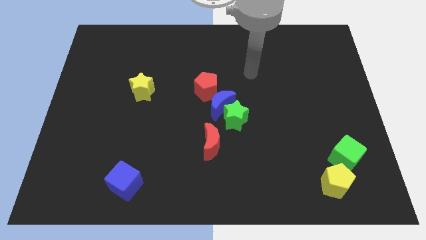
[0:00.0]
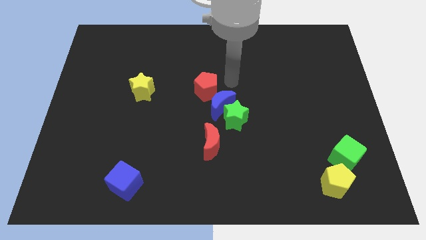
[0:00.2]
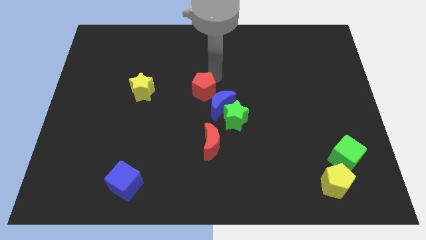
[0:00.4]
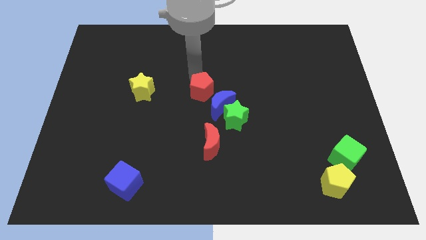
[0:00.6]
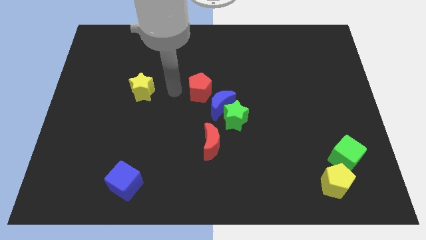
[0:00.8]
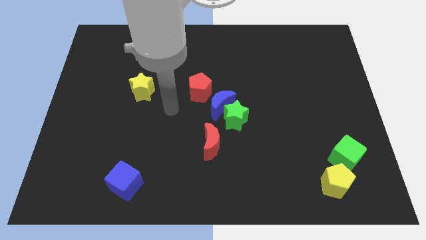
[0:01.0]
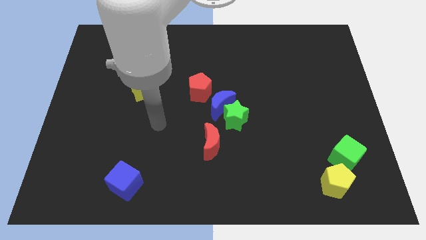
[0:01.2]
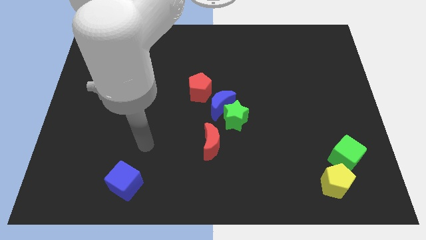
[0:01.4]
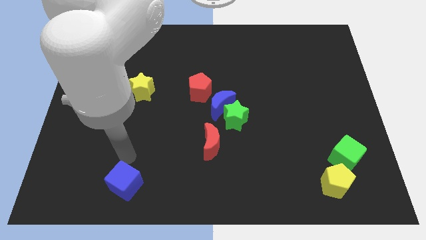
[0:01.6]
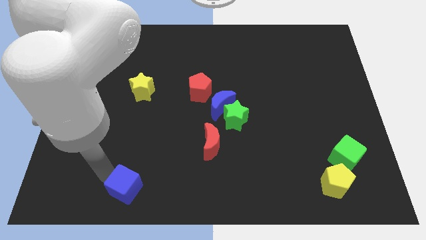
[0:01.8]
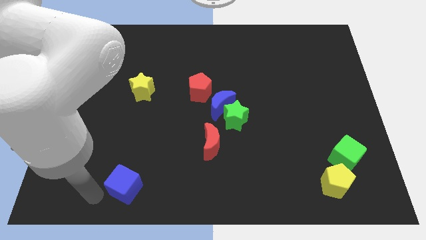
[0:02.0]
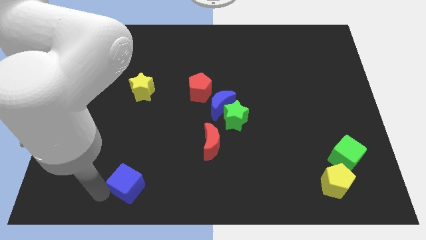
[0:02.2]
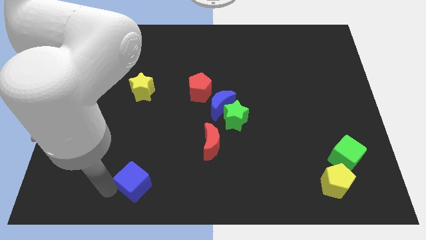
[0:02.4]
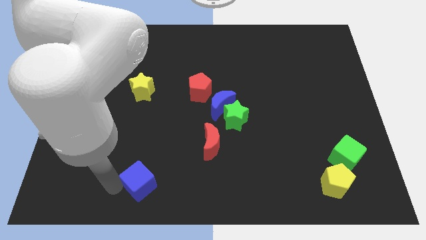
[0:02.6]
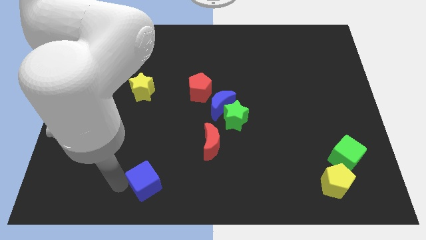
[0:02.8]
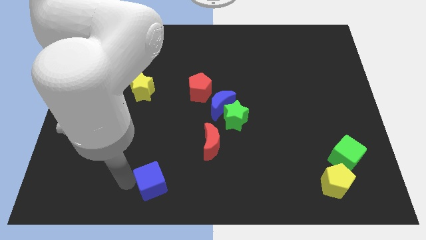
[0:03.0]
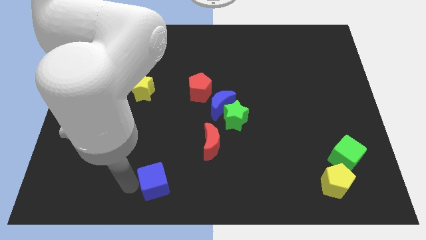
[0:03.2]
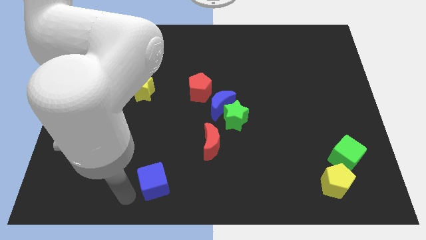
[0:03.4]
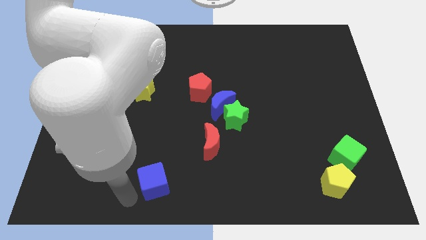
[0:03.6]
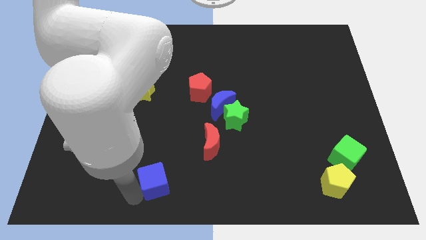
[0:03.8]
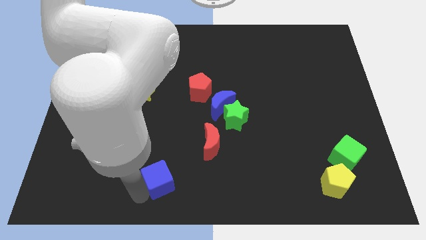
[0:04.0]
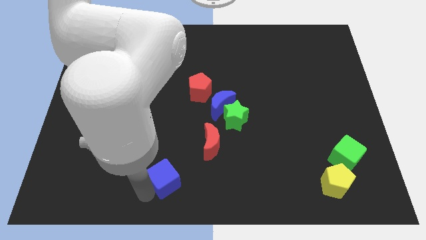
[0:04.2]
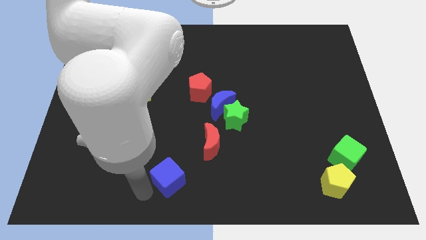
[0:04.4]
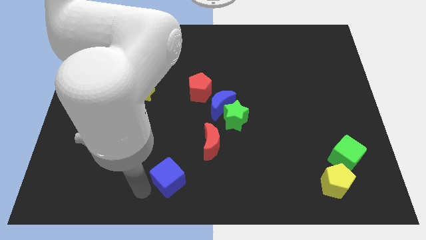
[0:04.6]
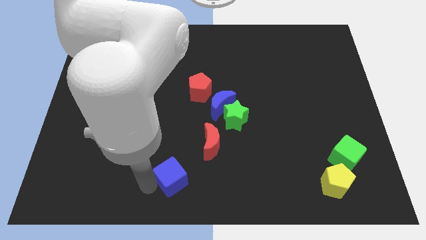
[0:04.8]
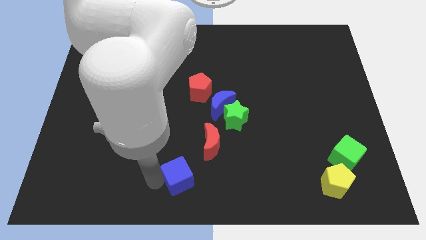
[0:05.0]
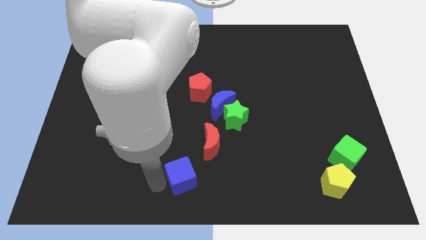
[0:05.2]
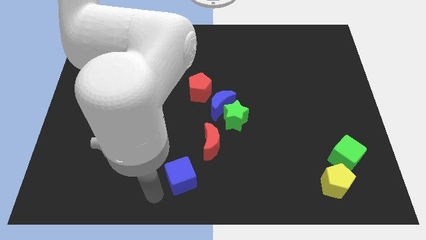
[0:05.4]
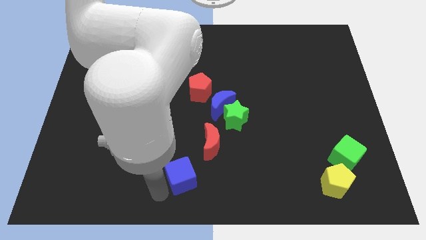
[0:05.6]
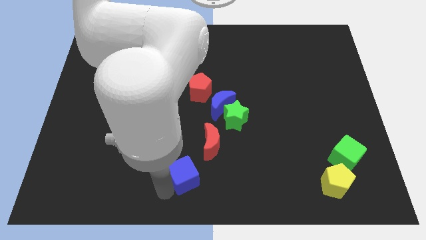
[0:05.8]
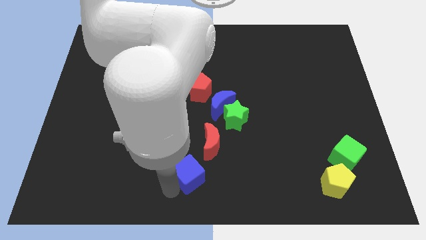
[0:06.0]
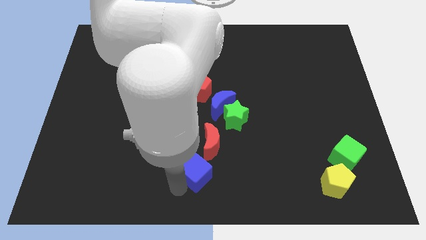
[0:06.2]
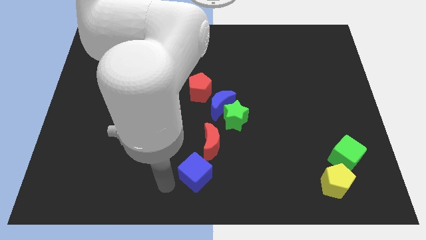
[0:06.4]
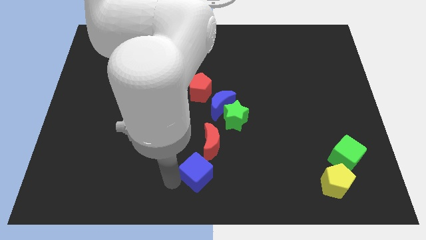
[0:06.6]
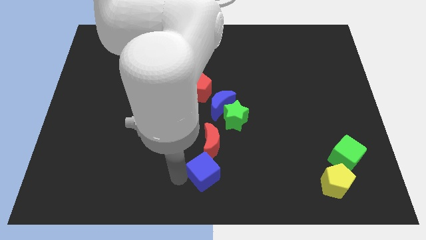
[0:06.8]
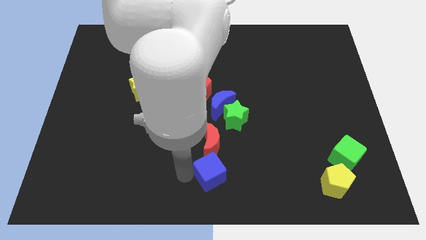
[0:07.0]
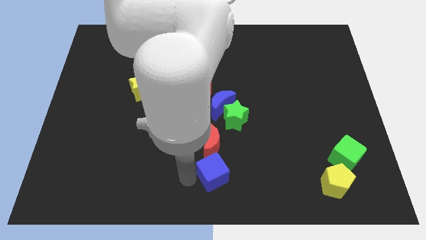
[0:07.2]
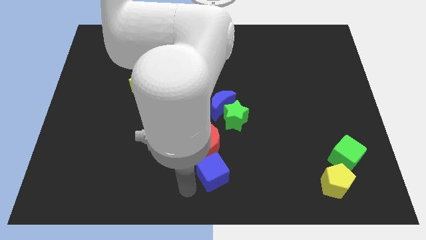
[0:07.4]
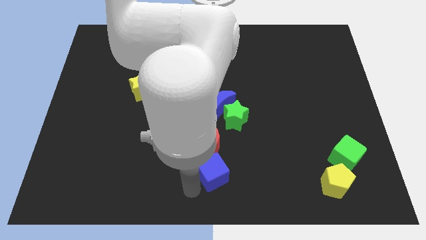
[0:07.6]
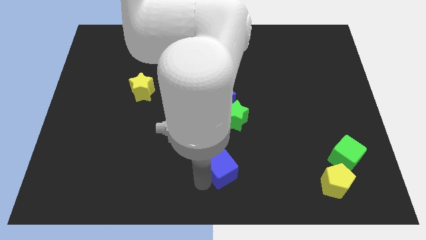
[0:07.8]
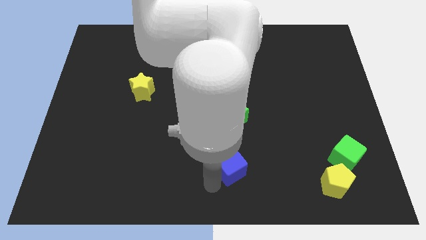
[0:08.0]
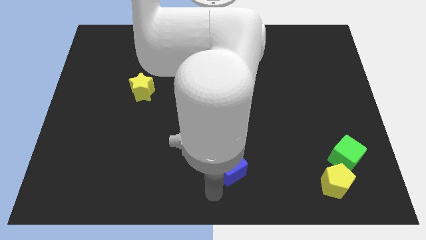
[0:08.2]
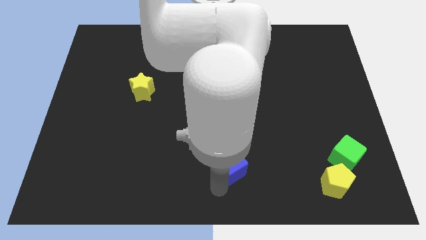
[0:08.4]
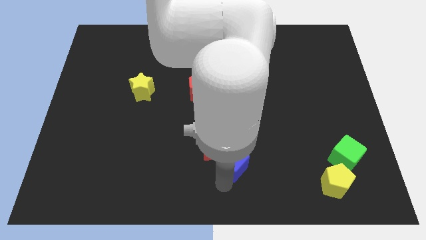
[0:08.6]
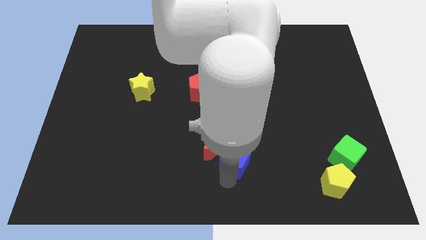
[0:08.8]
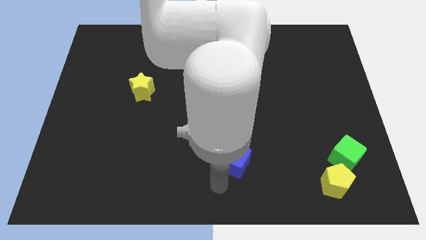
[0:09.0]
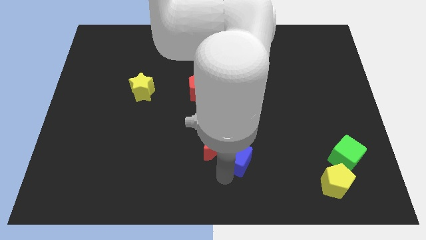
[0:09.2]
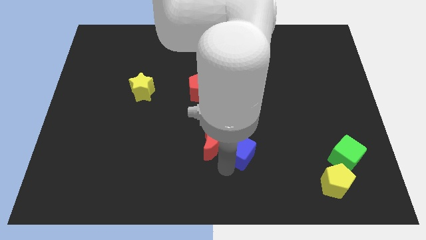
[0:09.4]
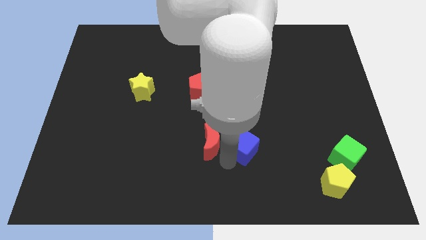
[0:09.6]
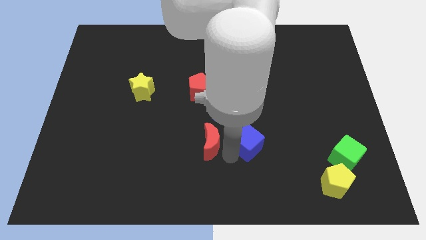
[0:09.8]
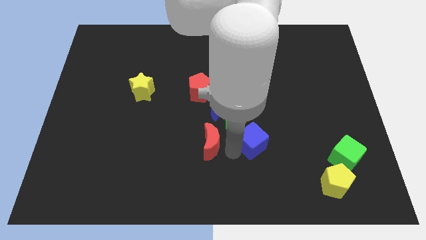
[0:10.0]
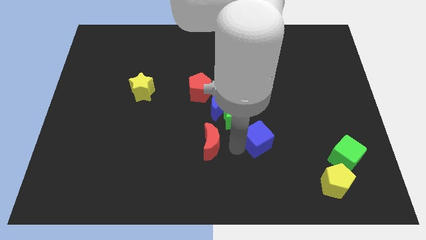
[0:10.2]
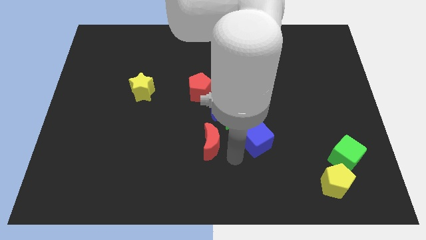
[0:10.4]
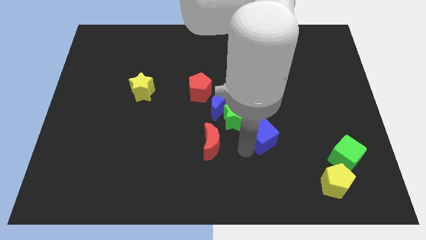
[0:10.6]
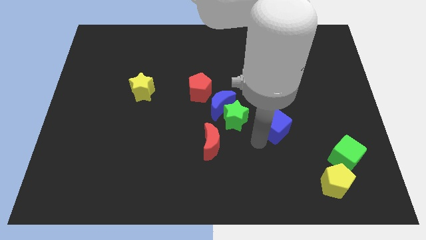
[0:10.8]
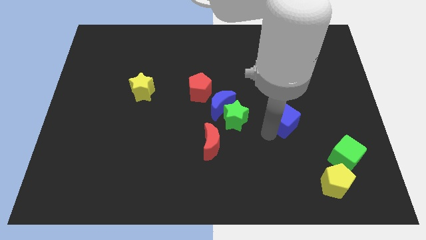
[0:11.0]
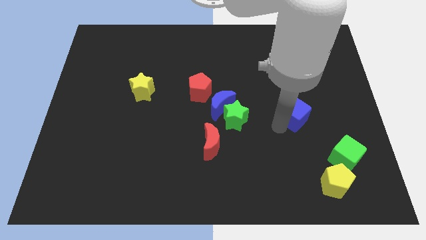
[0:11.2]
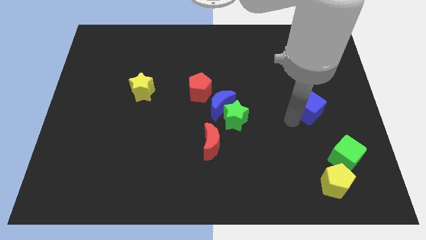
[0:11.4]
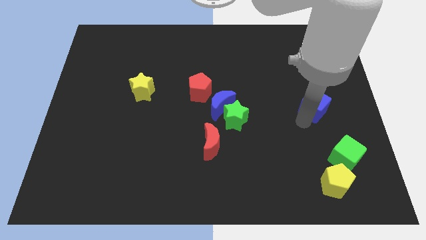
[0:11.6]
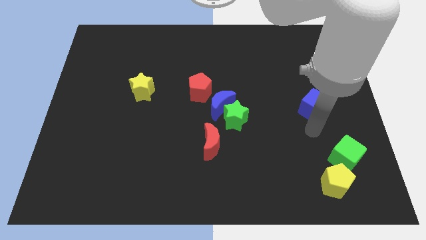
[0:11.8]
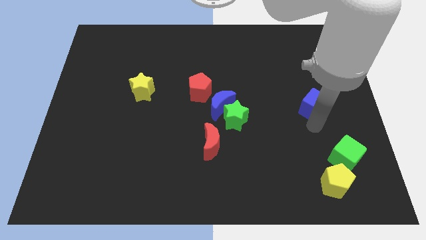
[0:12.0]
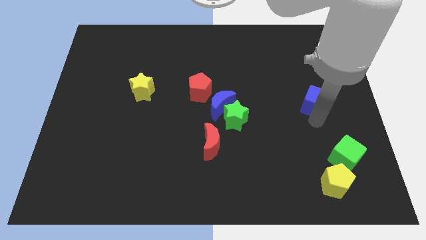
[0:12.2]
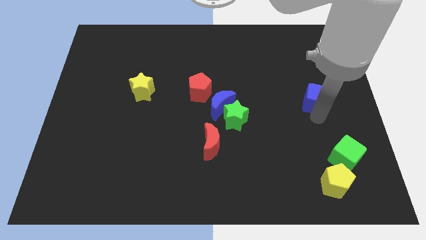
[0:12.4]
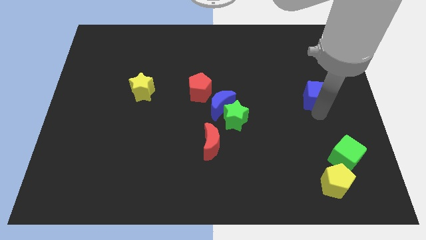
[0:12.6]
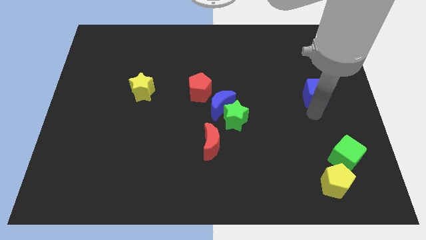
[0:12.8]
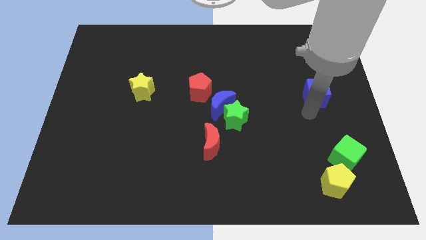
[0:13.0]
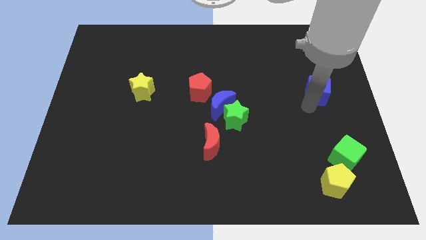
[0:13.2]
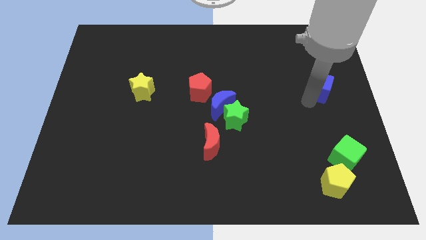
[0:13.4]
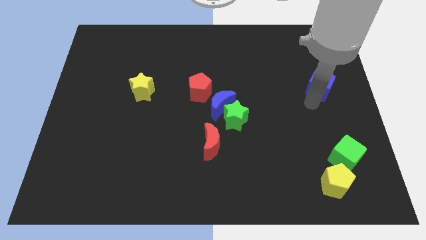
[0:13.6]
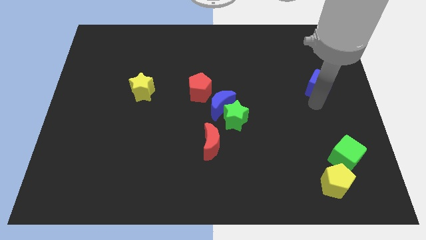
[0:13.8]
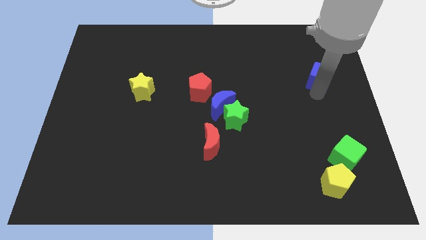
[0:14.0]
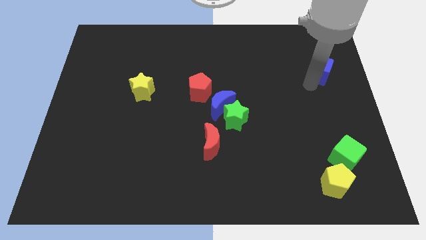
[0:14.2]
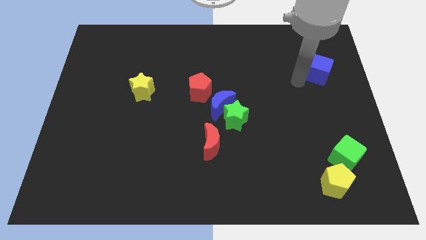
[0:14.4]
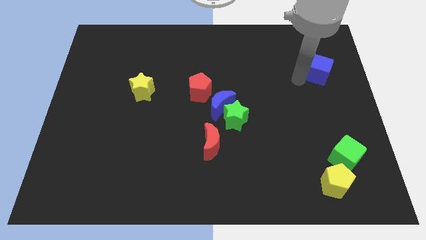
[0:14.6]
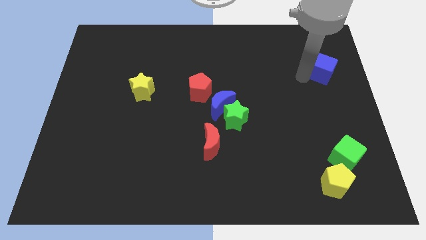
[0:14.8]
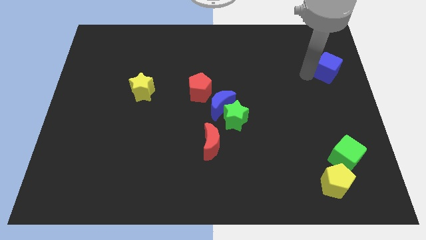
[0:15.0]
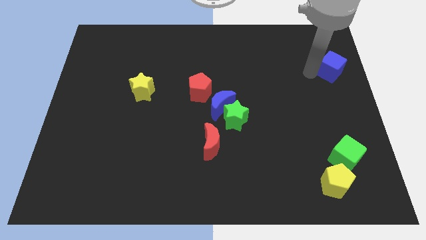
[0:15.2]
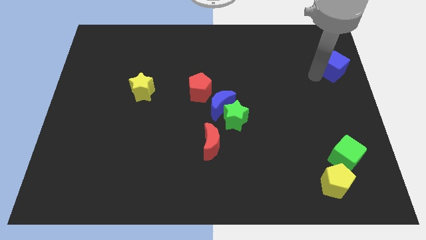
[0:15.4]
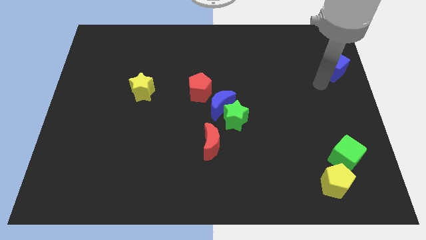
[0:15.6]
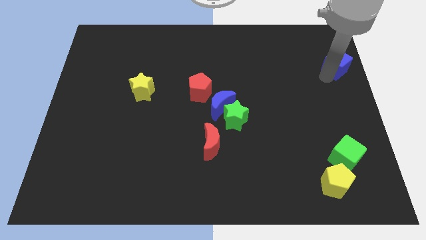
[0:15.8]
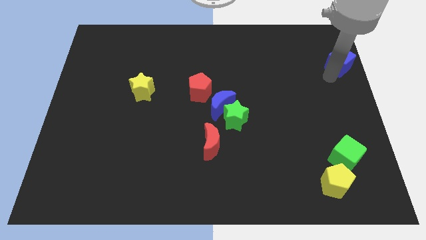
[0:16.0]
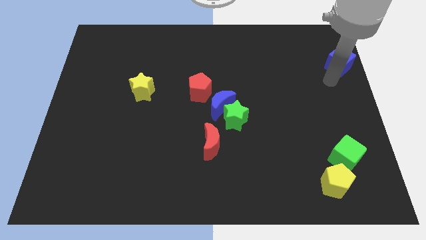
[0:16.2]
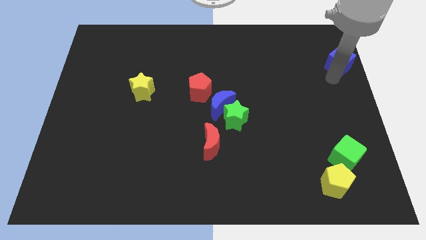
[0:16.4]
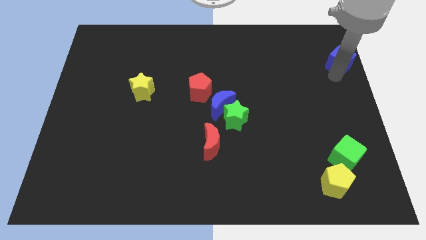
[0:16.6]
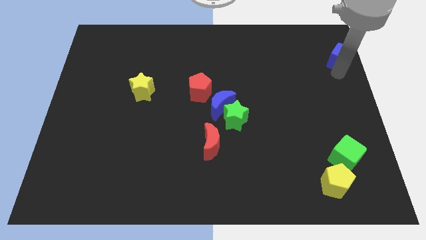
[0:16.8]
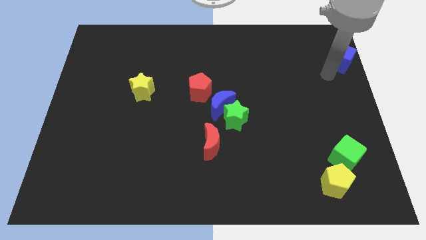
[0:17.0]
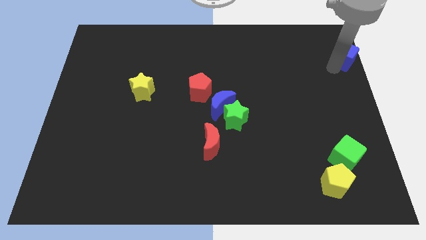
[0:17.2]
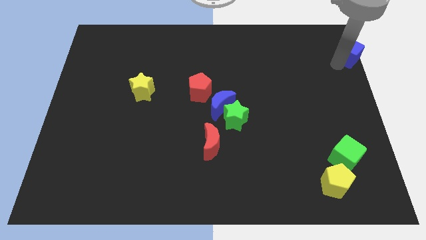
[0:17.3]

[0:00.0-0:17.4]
move the blue cube to the top right of the board
